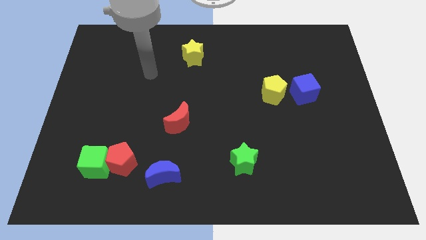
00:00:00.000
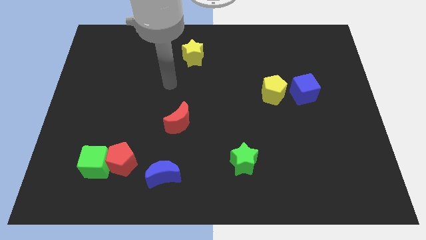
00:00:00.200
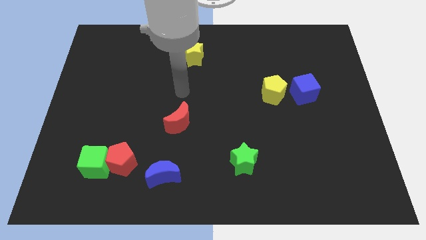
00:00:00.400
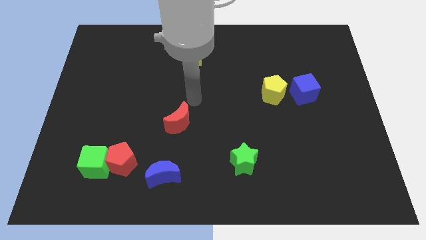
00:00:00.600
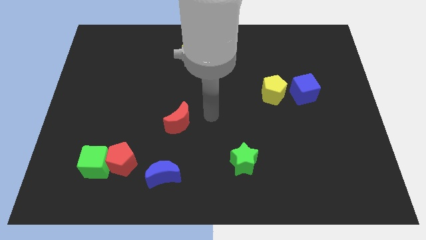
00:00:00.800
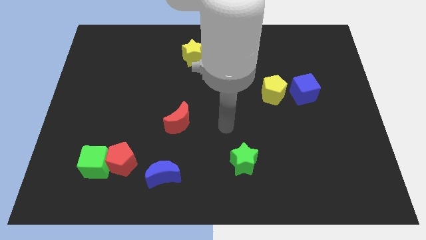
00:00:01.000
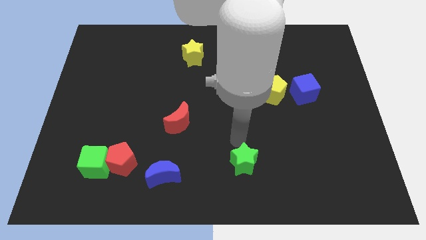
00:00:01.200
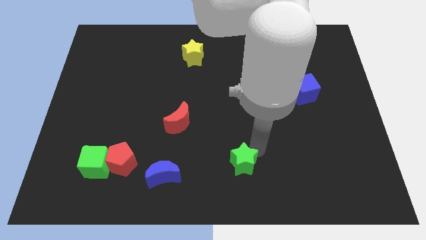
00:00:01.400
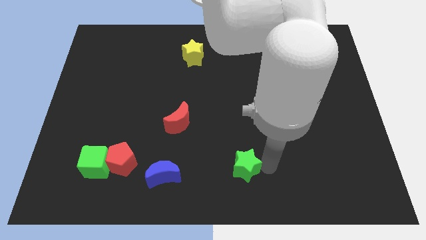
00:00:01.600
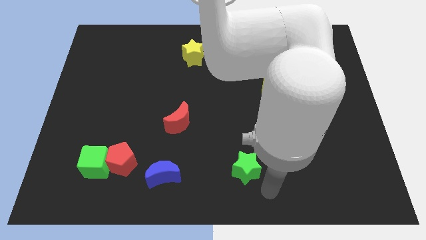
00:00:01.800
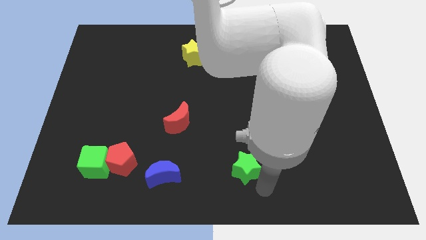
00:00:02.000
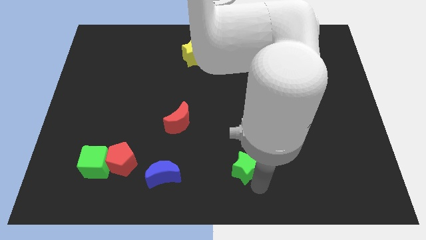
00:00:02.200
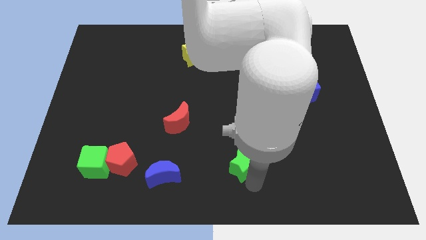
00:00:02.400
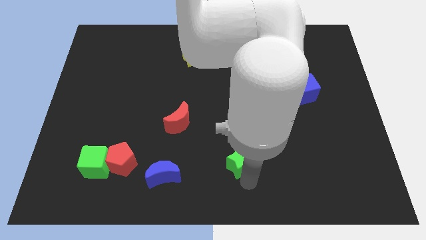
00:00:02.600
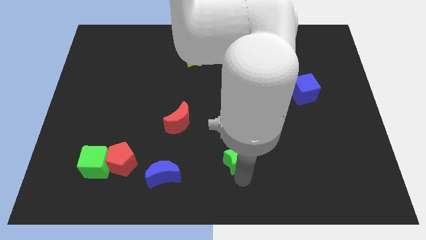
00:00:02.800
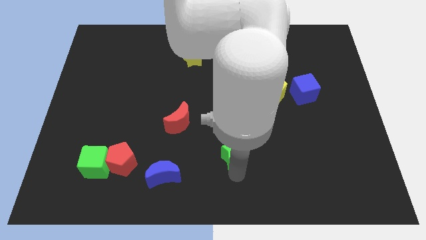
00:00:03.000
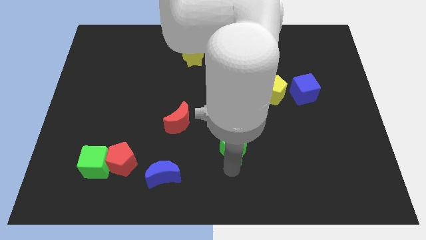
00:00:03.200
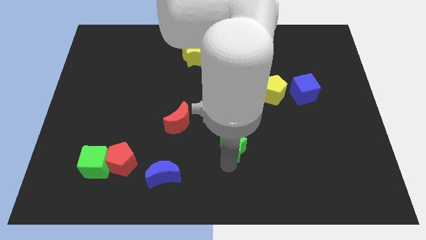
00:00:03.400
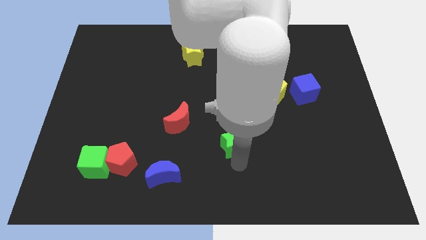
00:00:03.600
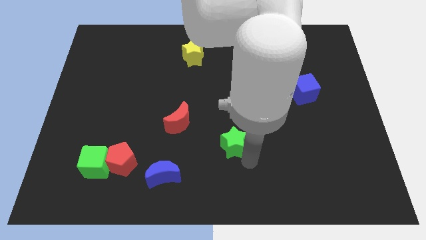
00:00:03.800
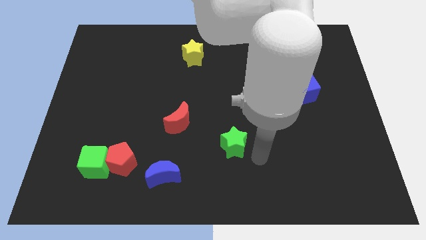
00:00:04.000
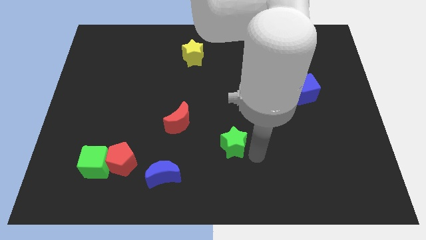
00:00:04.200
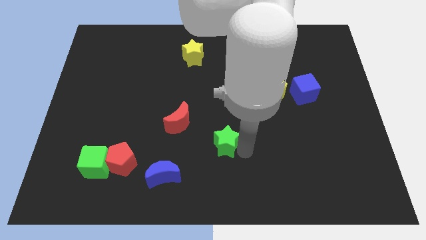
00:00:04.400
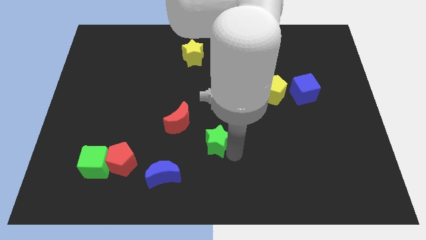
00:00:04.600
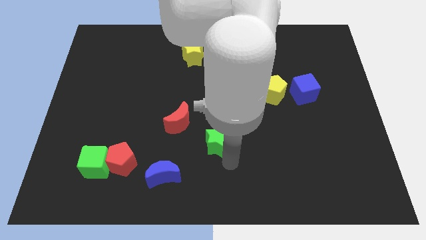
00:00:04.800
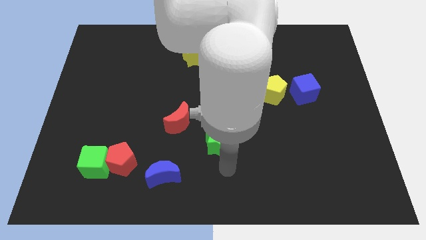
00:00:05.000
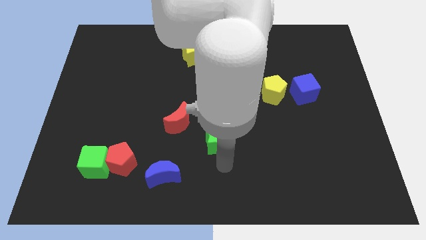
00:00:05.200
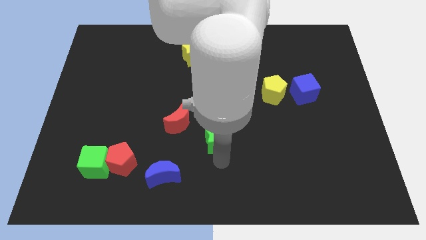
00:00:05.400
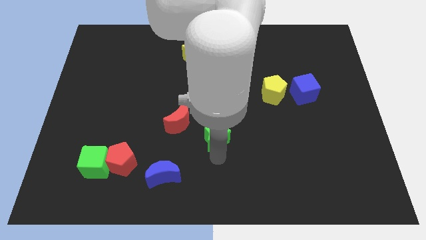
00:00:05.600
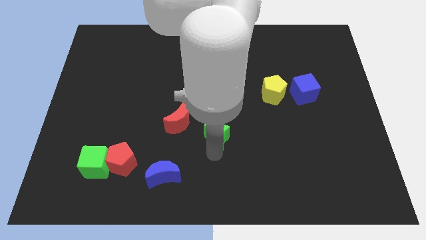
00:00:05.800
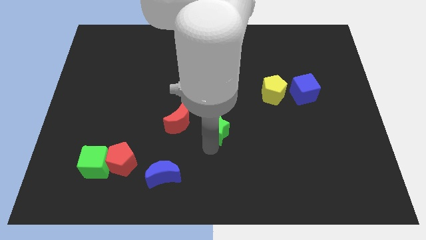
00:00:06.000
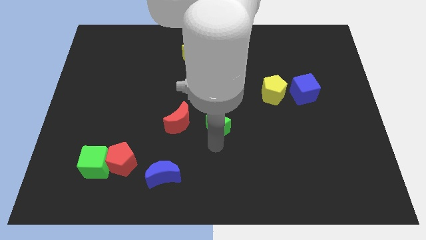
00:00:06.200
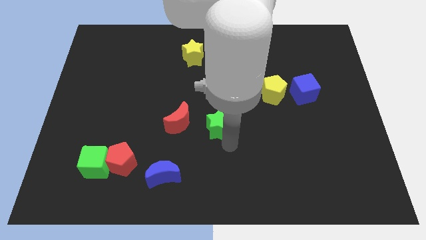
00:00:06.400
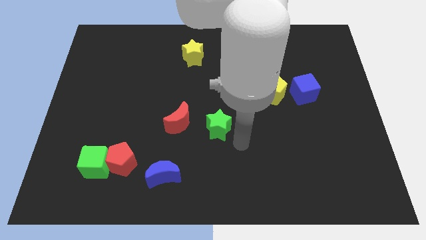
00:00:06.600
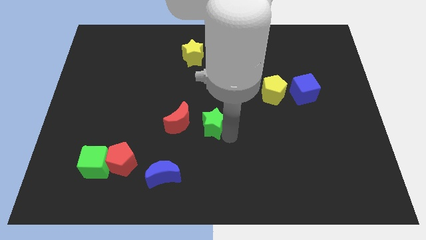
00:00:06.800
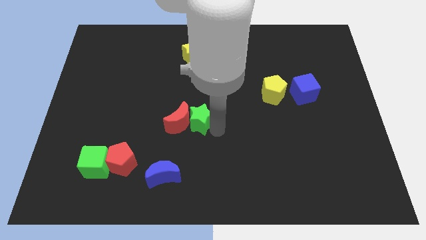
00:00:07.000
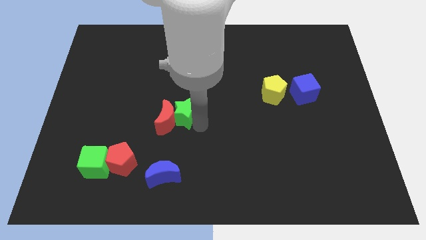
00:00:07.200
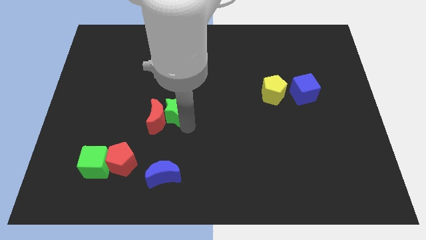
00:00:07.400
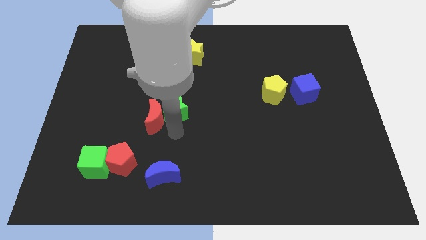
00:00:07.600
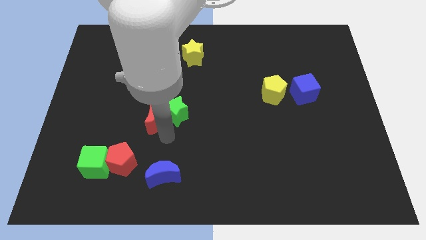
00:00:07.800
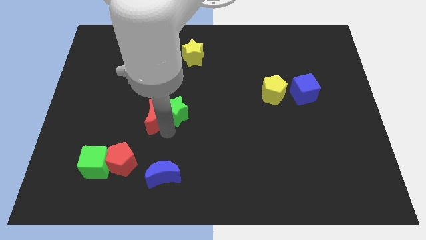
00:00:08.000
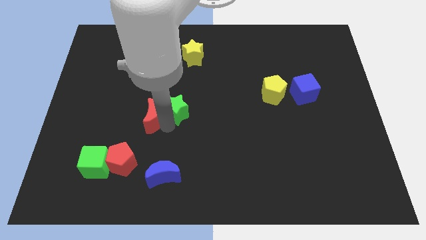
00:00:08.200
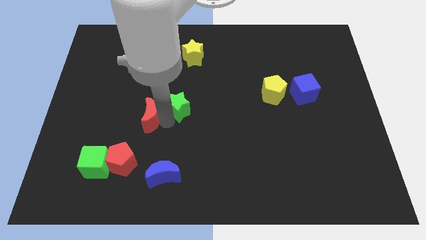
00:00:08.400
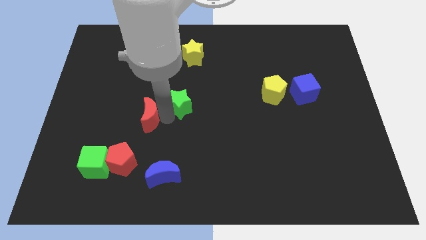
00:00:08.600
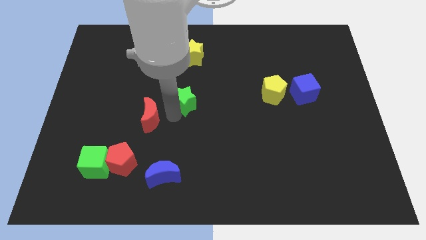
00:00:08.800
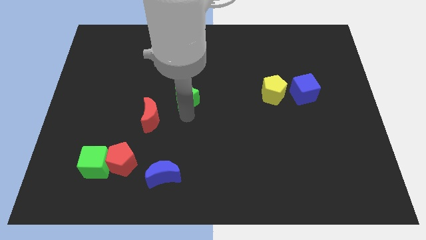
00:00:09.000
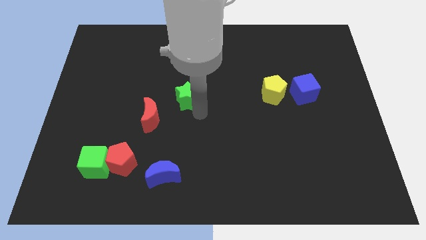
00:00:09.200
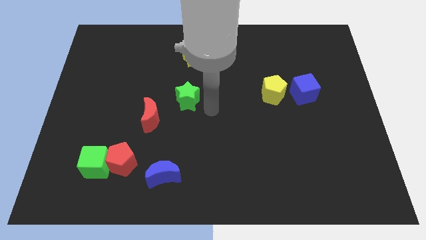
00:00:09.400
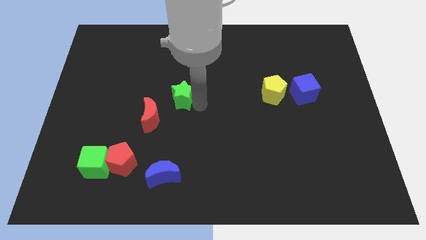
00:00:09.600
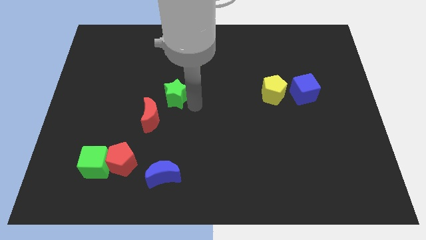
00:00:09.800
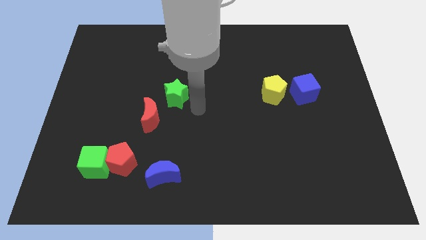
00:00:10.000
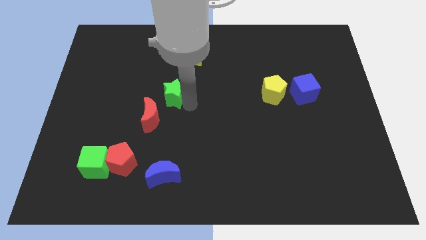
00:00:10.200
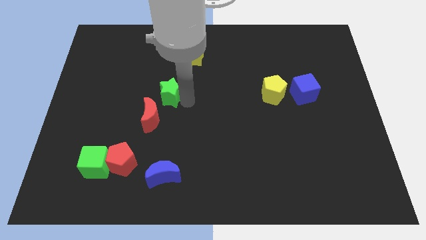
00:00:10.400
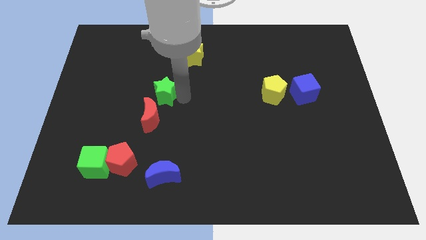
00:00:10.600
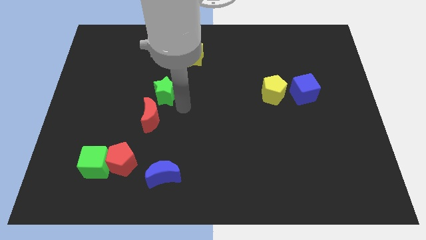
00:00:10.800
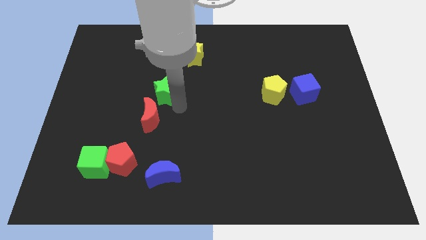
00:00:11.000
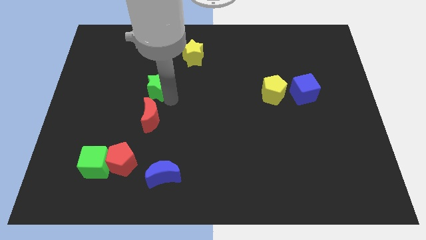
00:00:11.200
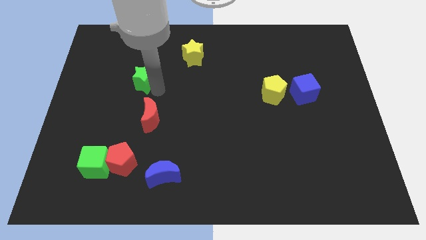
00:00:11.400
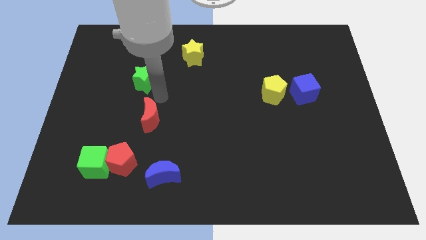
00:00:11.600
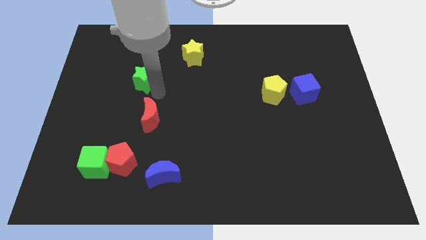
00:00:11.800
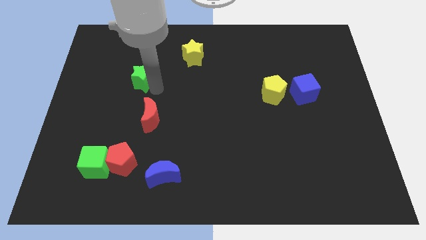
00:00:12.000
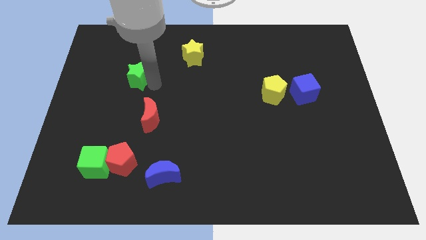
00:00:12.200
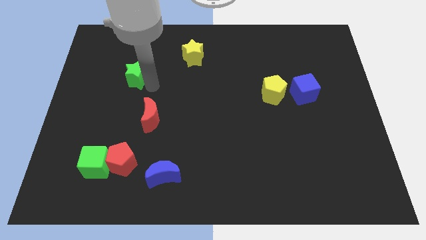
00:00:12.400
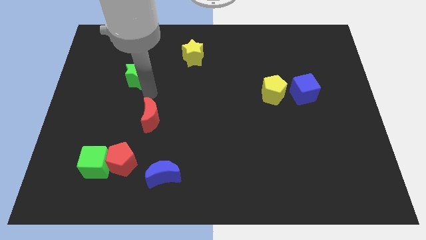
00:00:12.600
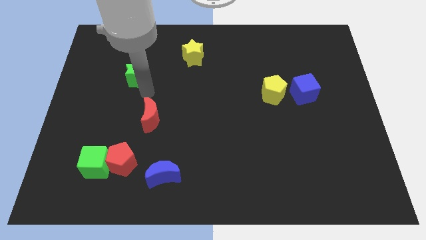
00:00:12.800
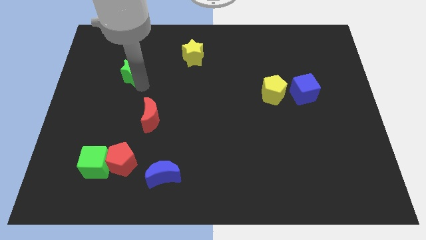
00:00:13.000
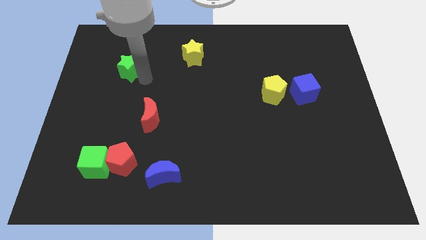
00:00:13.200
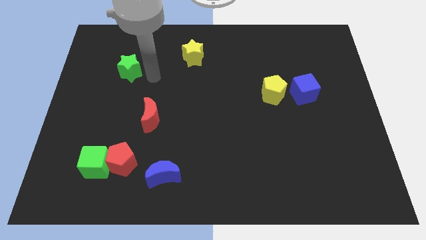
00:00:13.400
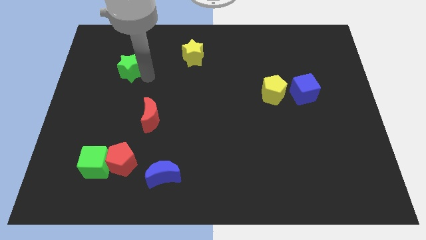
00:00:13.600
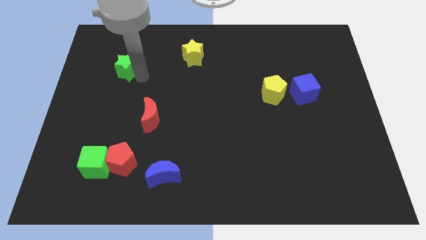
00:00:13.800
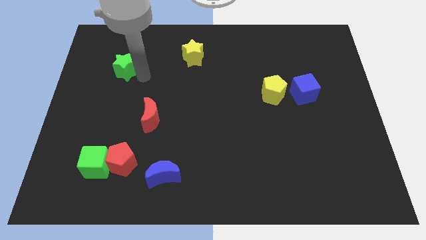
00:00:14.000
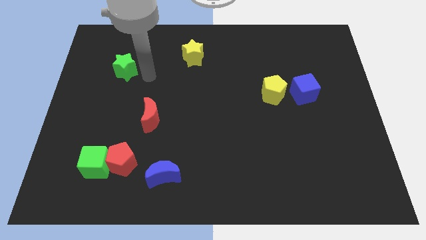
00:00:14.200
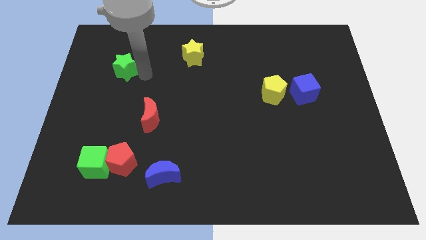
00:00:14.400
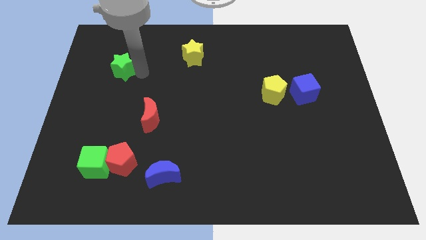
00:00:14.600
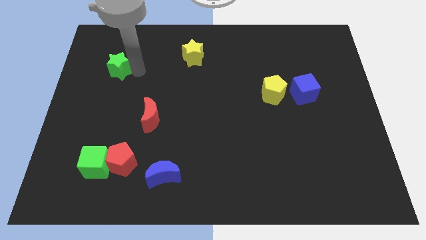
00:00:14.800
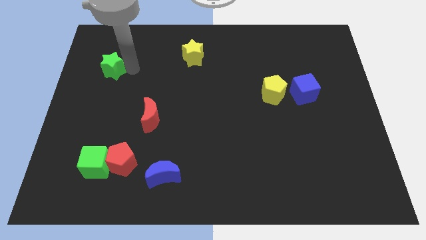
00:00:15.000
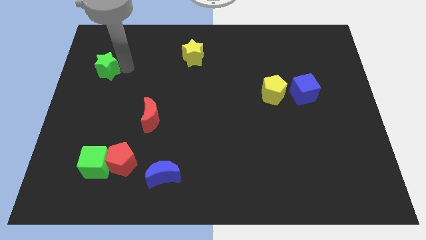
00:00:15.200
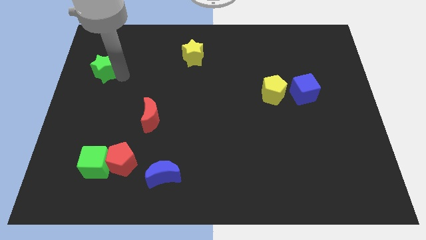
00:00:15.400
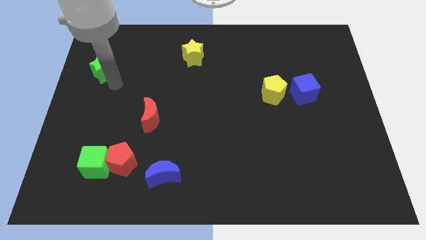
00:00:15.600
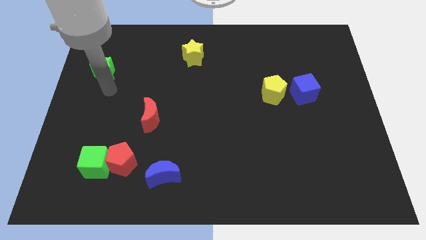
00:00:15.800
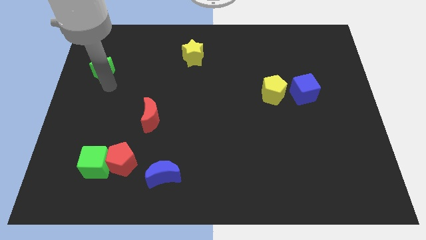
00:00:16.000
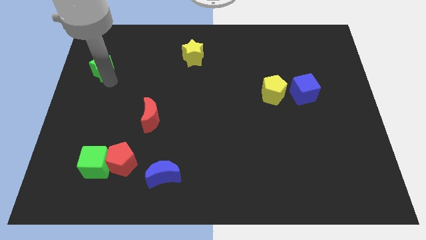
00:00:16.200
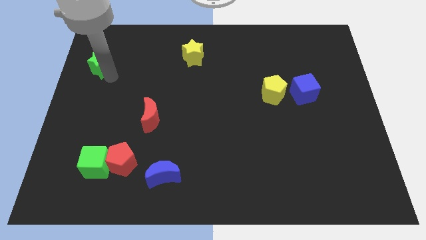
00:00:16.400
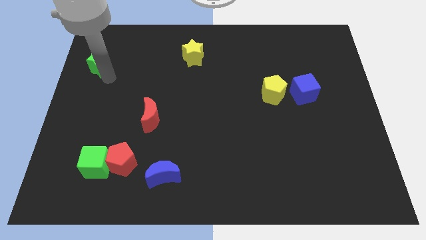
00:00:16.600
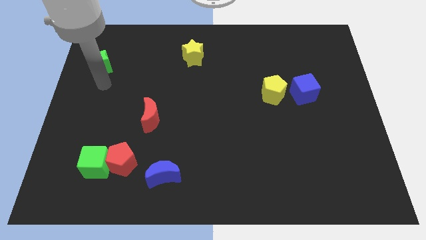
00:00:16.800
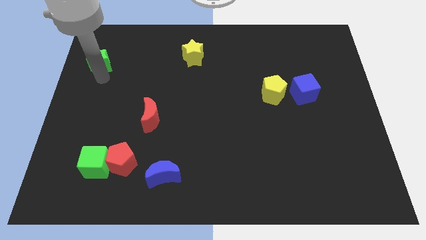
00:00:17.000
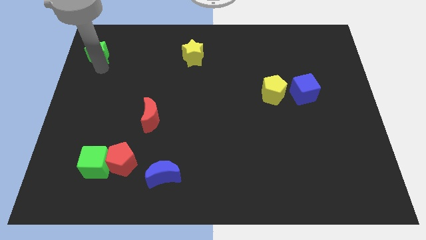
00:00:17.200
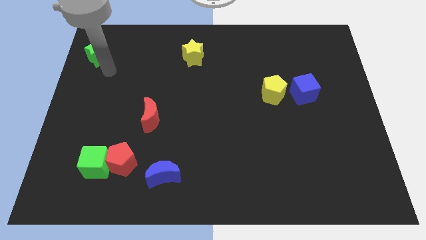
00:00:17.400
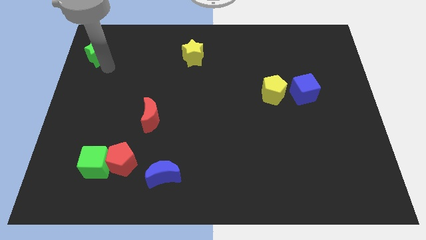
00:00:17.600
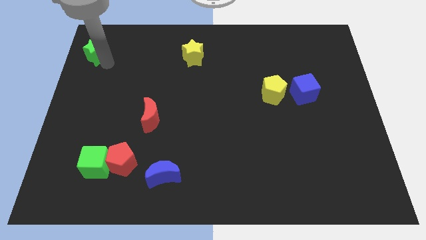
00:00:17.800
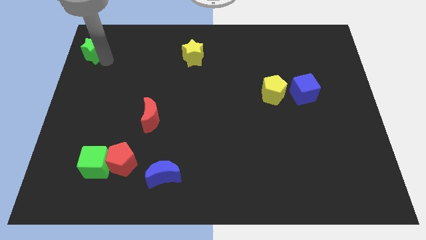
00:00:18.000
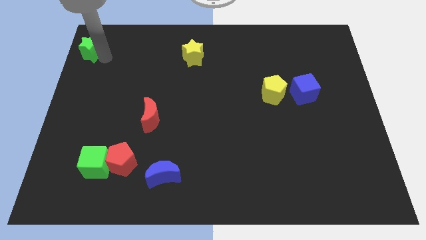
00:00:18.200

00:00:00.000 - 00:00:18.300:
put the green star to the top left
